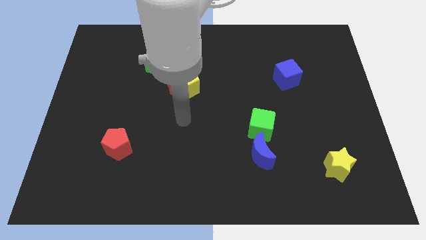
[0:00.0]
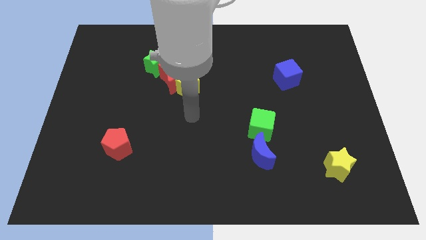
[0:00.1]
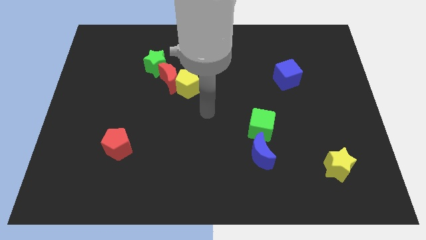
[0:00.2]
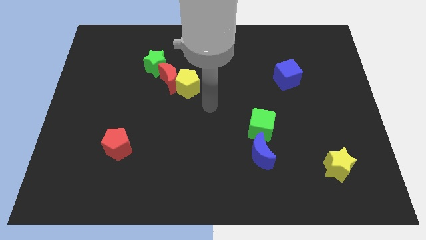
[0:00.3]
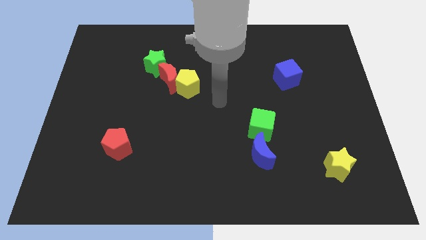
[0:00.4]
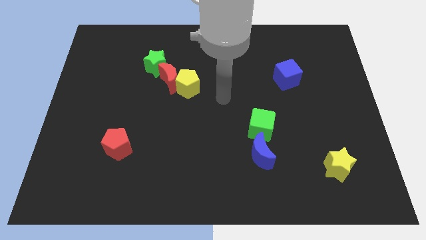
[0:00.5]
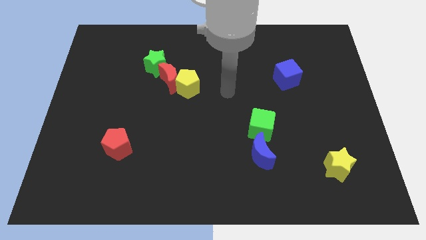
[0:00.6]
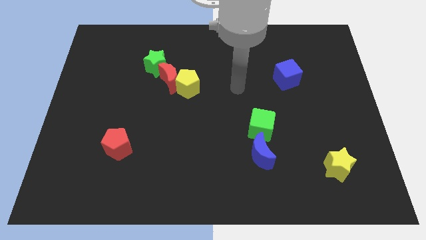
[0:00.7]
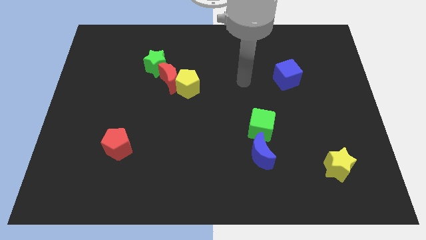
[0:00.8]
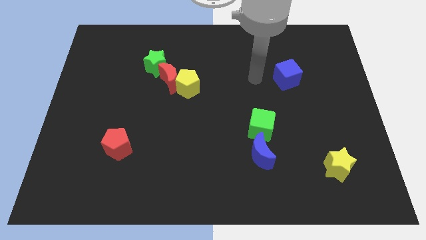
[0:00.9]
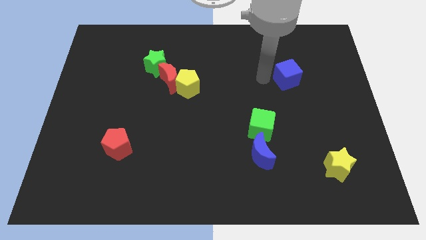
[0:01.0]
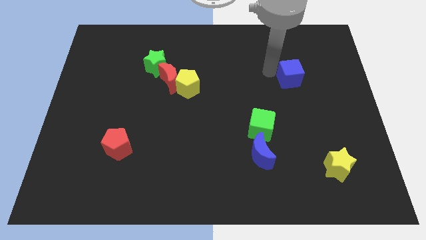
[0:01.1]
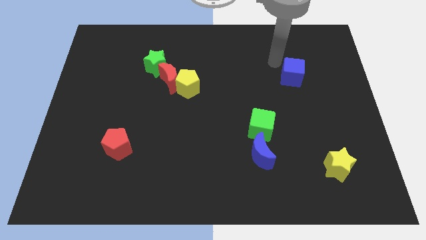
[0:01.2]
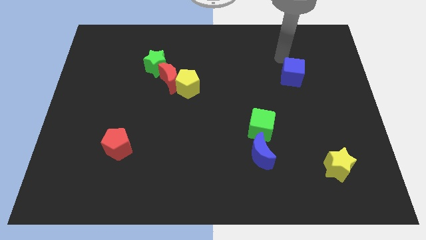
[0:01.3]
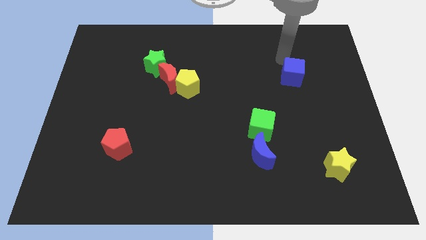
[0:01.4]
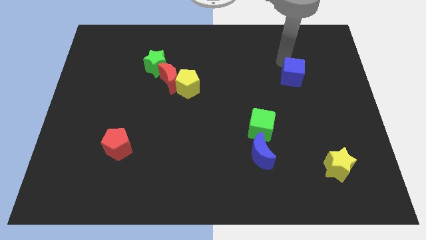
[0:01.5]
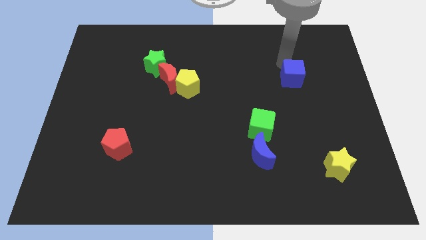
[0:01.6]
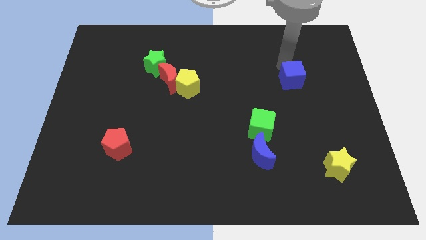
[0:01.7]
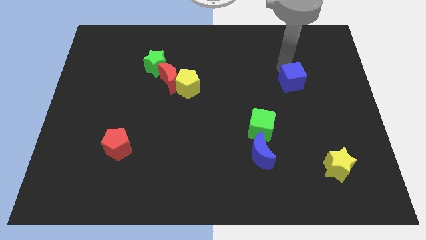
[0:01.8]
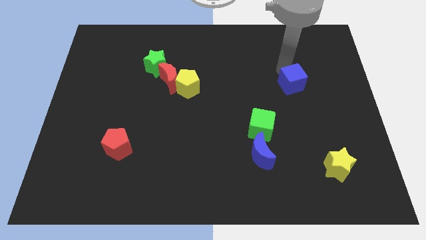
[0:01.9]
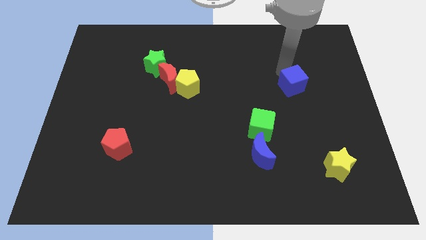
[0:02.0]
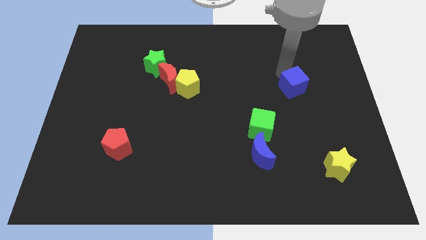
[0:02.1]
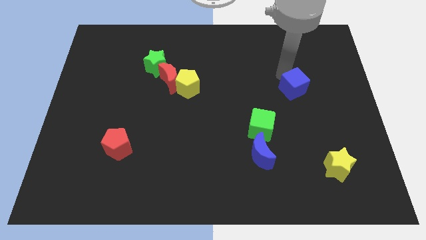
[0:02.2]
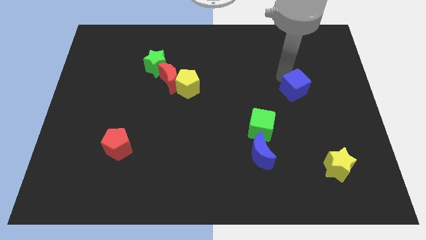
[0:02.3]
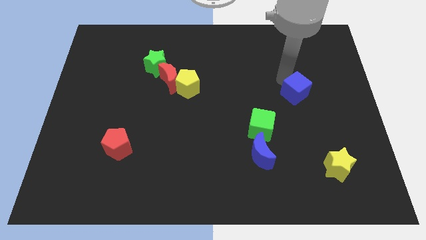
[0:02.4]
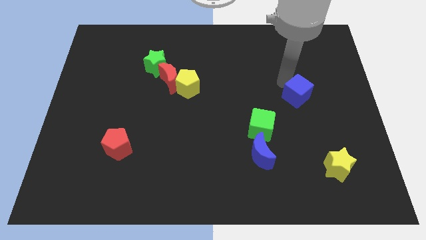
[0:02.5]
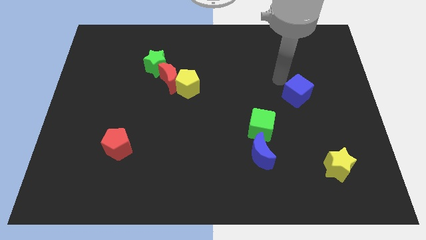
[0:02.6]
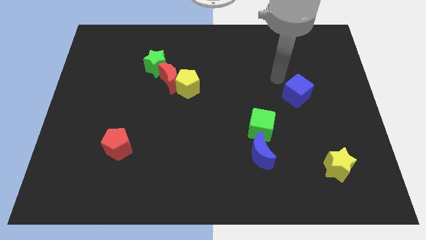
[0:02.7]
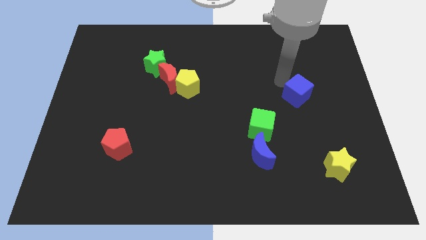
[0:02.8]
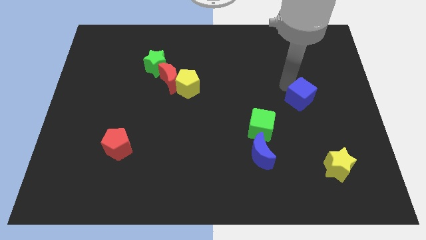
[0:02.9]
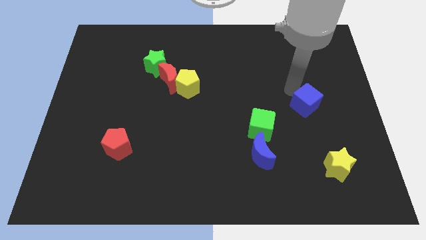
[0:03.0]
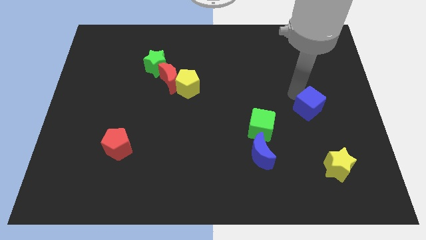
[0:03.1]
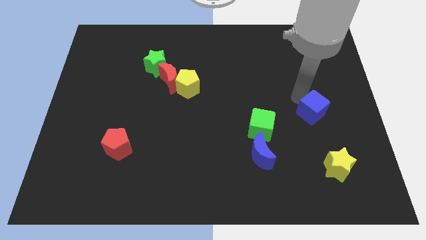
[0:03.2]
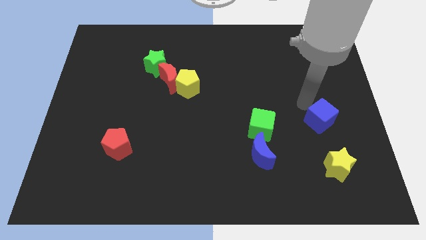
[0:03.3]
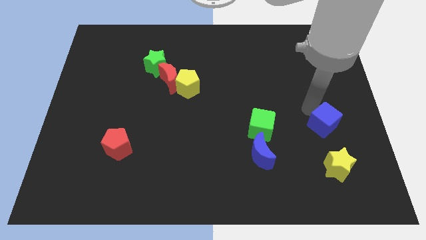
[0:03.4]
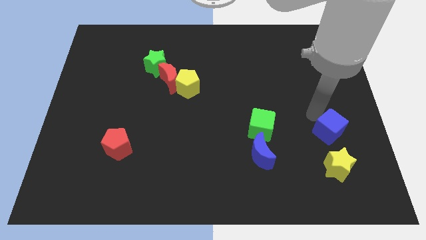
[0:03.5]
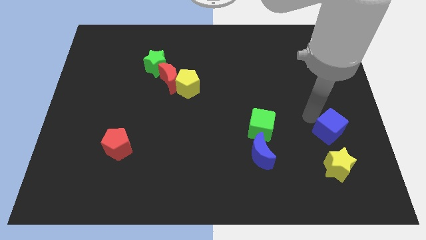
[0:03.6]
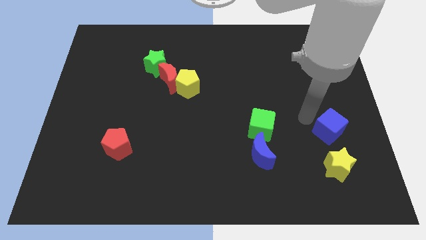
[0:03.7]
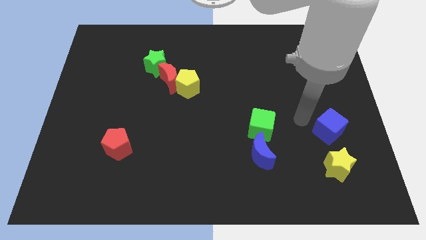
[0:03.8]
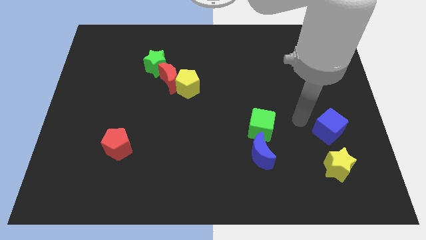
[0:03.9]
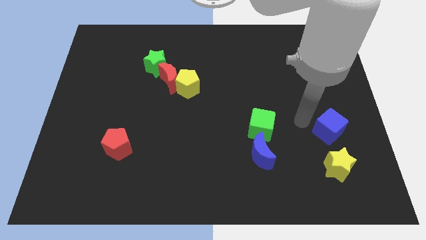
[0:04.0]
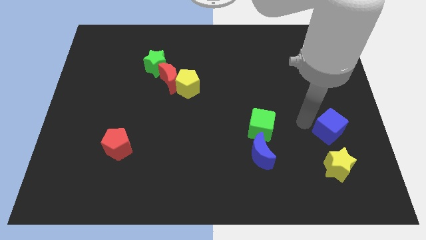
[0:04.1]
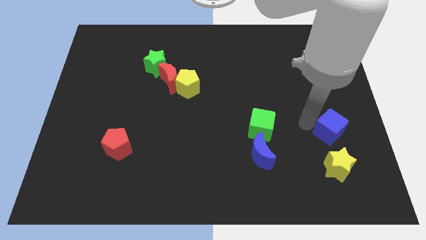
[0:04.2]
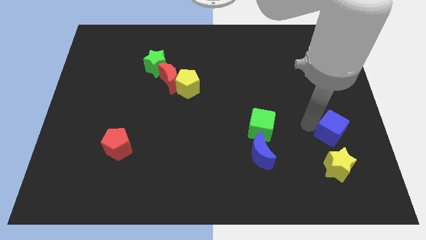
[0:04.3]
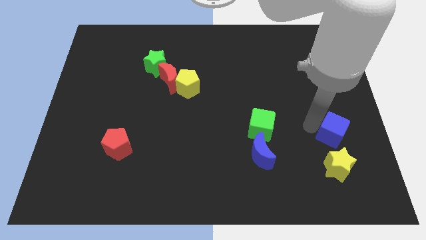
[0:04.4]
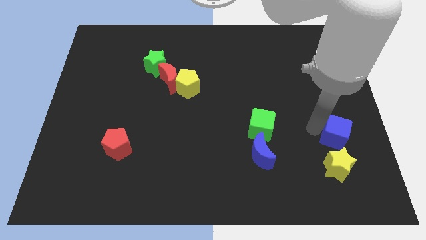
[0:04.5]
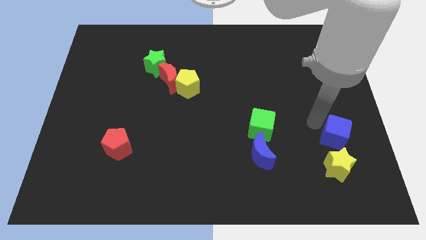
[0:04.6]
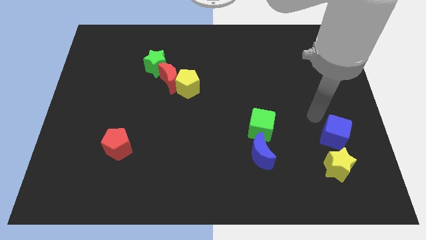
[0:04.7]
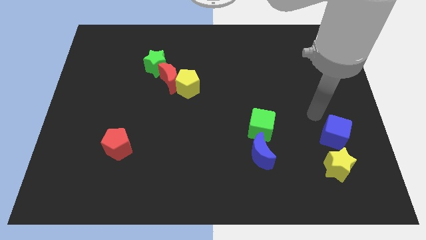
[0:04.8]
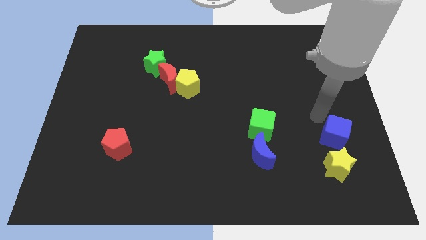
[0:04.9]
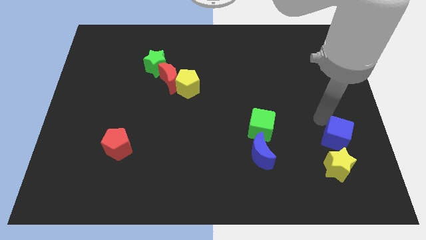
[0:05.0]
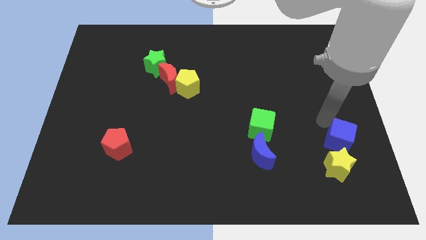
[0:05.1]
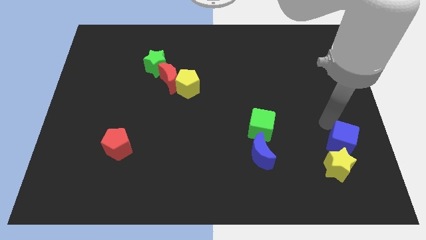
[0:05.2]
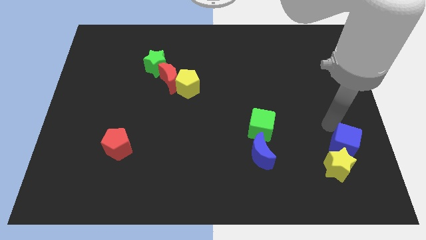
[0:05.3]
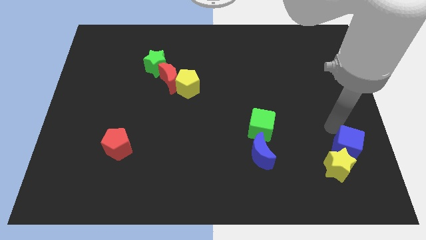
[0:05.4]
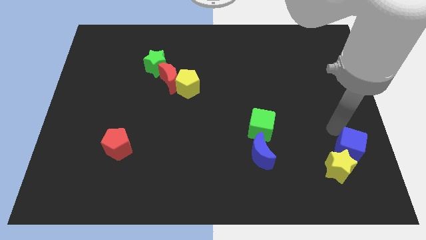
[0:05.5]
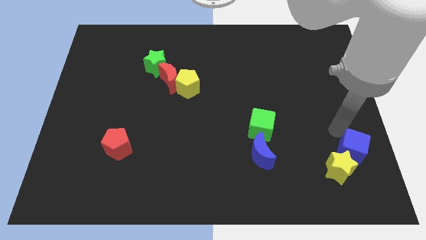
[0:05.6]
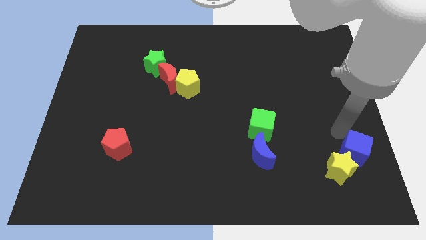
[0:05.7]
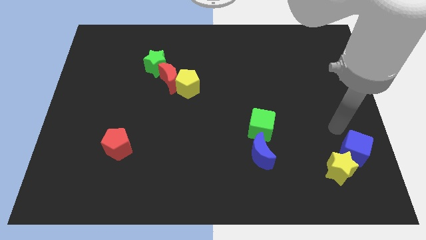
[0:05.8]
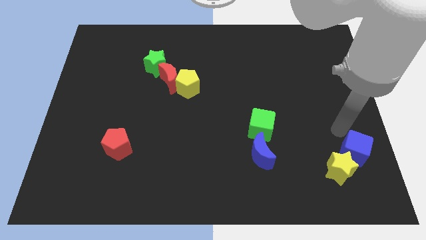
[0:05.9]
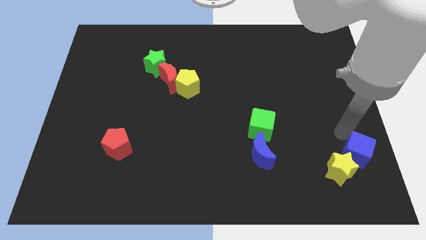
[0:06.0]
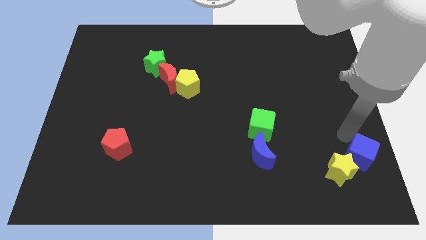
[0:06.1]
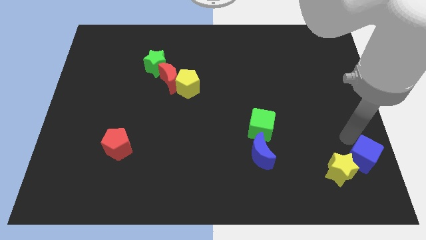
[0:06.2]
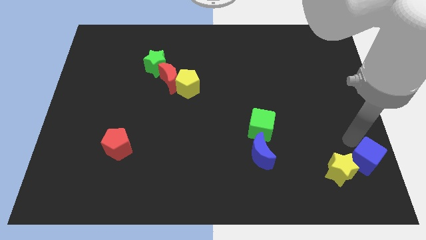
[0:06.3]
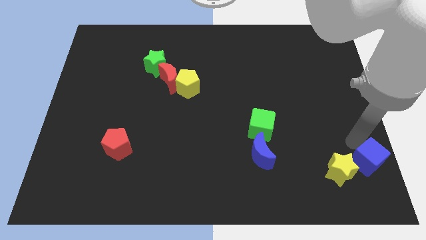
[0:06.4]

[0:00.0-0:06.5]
put the blue cube to the bottom right
